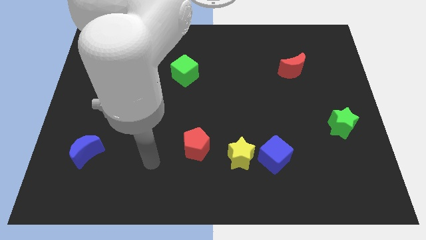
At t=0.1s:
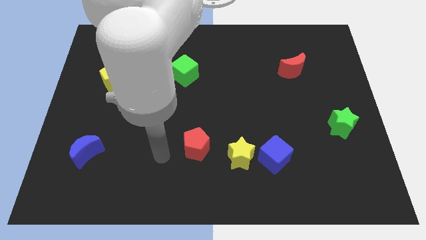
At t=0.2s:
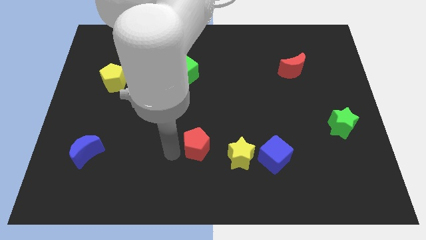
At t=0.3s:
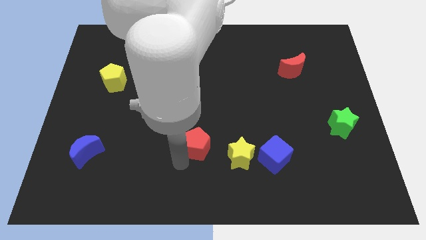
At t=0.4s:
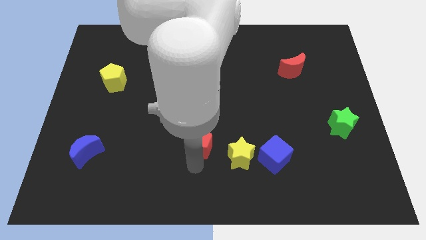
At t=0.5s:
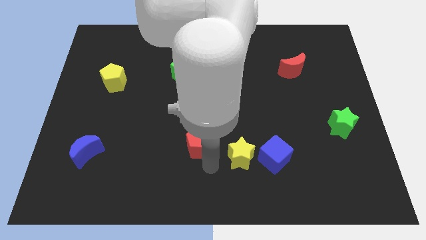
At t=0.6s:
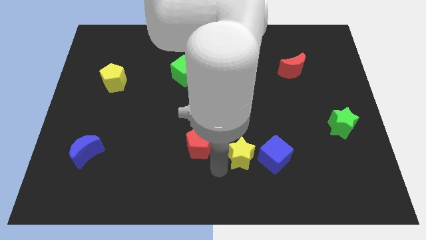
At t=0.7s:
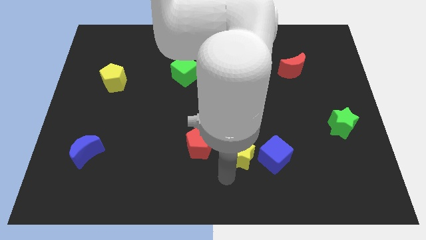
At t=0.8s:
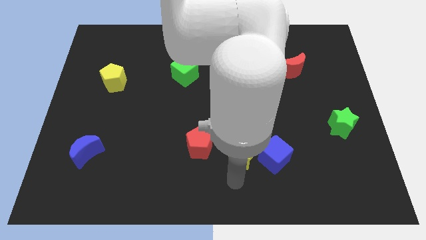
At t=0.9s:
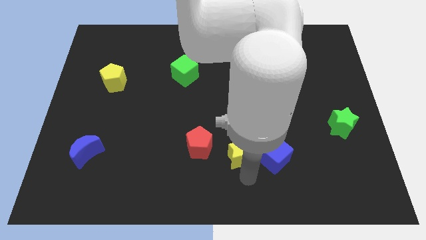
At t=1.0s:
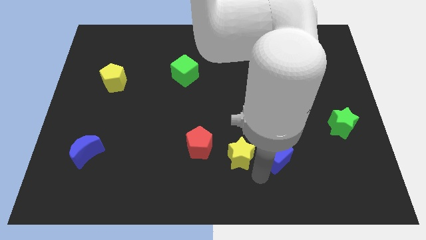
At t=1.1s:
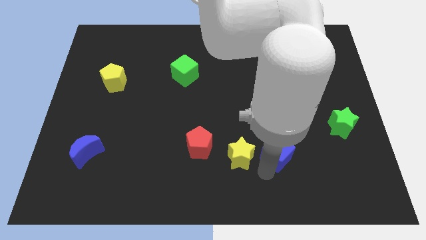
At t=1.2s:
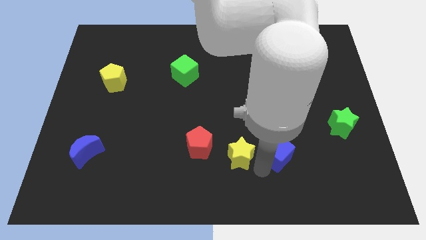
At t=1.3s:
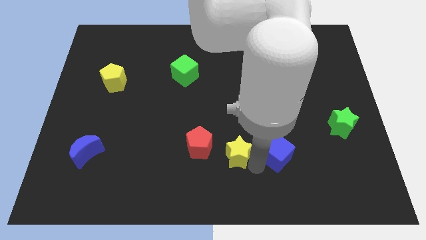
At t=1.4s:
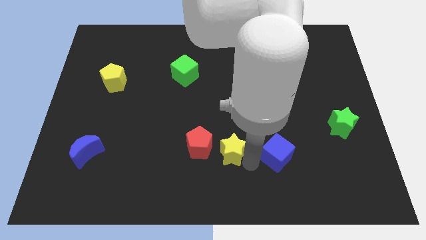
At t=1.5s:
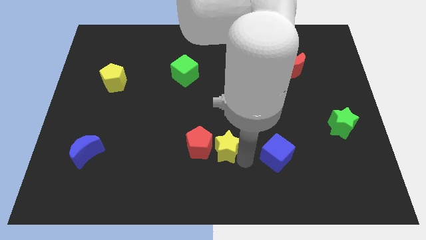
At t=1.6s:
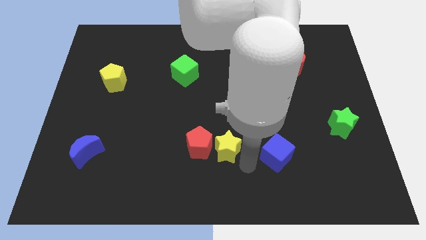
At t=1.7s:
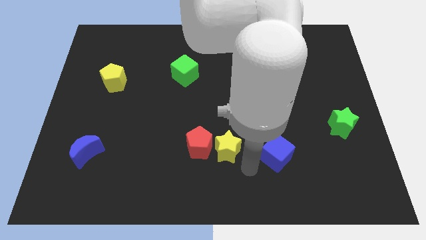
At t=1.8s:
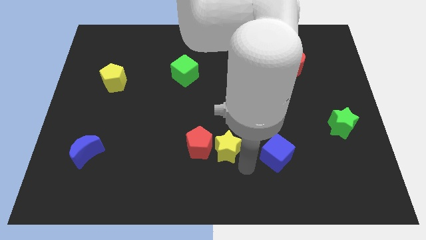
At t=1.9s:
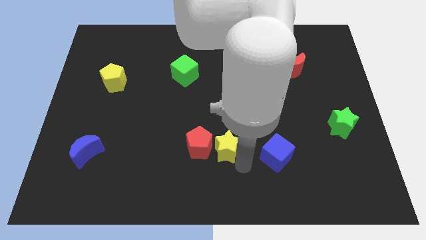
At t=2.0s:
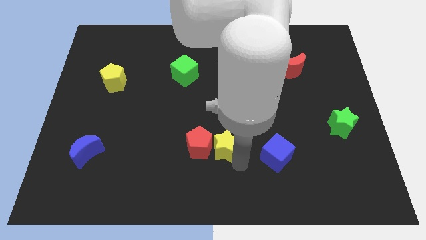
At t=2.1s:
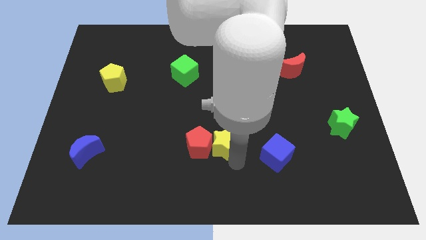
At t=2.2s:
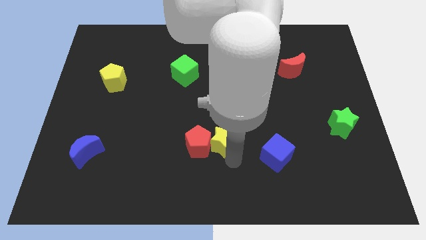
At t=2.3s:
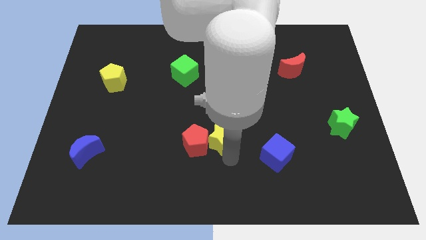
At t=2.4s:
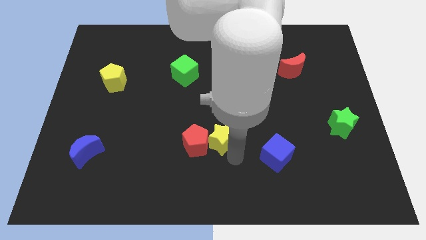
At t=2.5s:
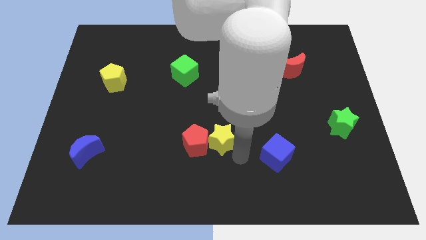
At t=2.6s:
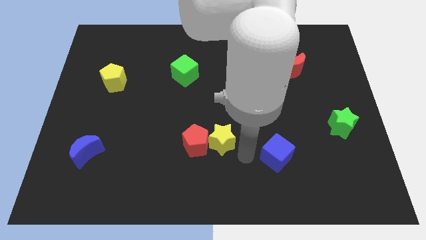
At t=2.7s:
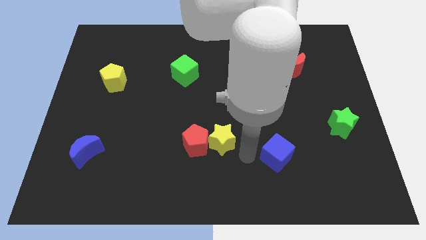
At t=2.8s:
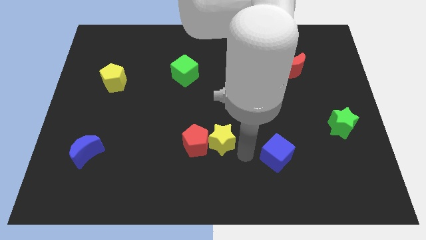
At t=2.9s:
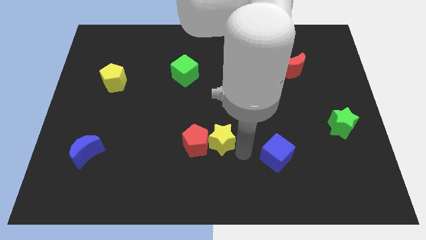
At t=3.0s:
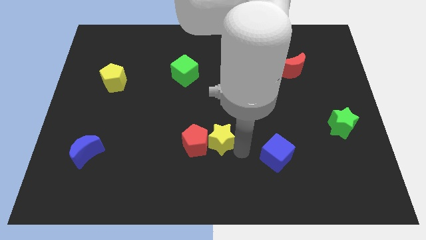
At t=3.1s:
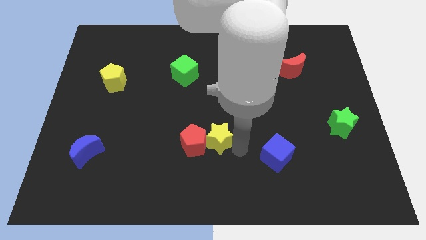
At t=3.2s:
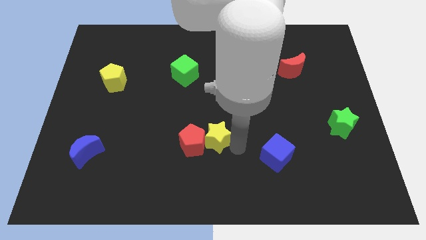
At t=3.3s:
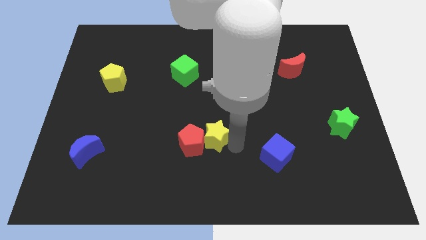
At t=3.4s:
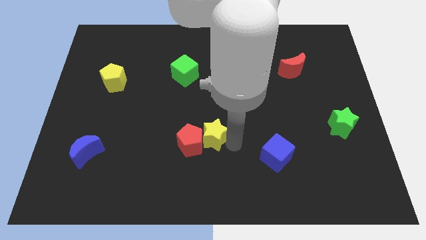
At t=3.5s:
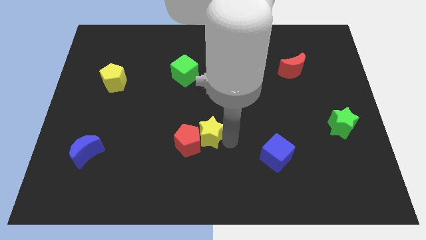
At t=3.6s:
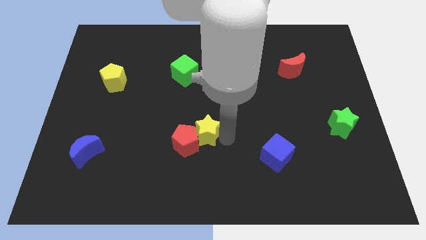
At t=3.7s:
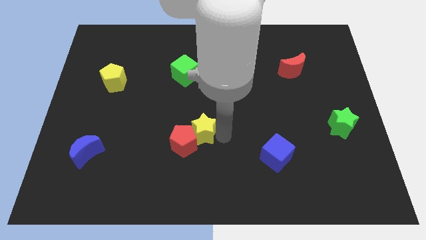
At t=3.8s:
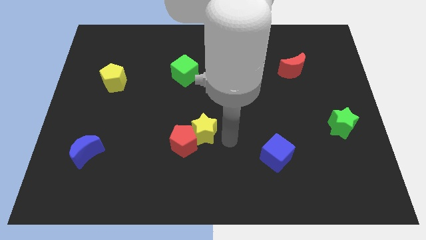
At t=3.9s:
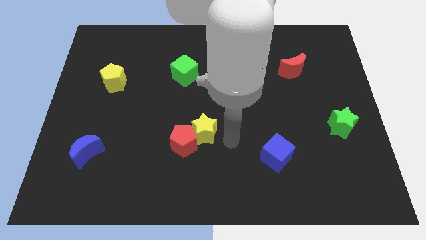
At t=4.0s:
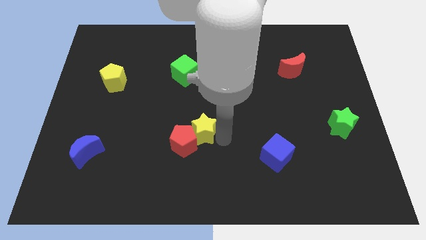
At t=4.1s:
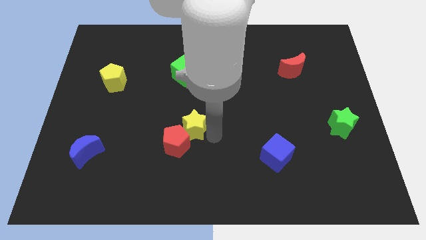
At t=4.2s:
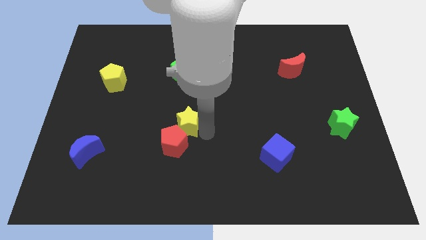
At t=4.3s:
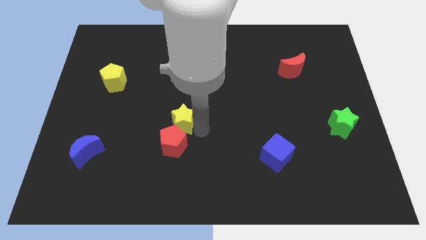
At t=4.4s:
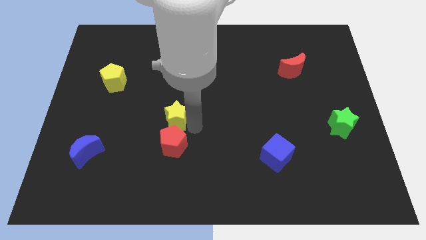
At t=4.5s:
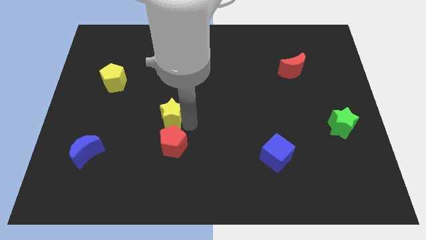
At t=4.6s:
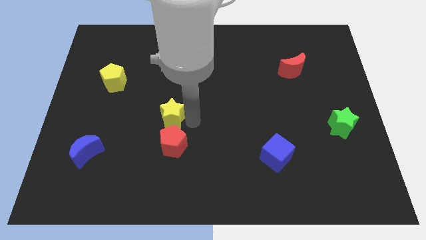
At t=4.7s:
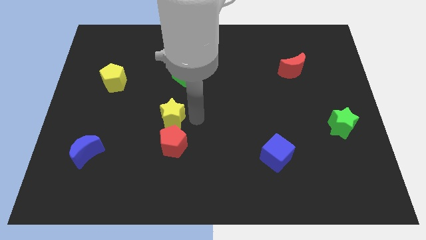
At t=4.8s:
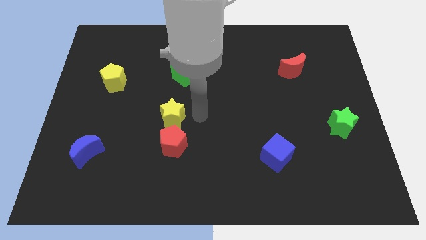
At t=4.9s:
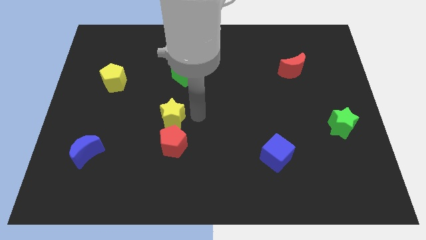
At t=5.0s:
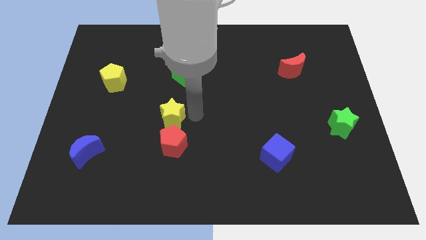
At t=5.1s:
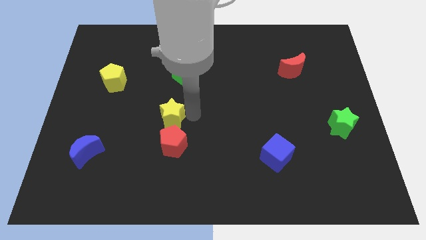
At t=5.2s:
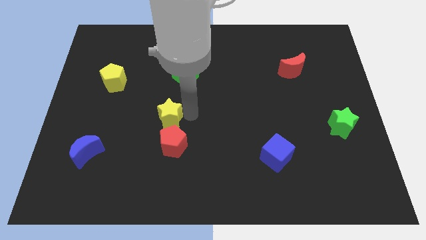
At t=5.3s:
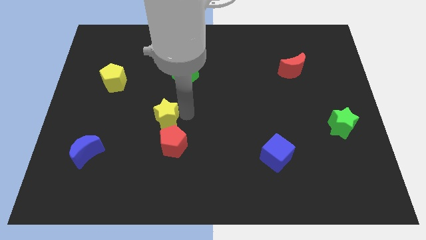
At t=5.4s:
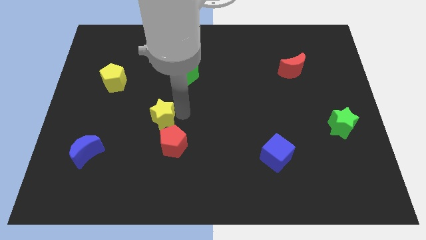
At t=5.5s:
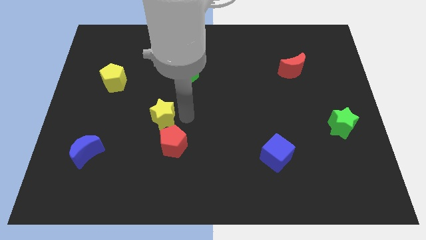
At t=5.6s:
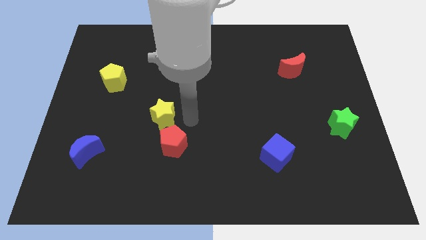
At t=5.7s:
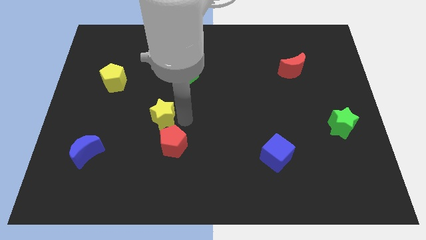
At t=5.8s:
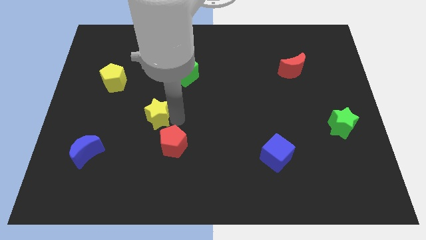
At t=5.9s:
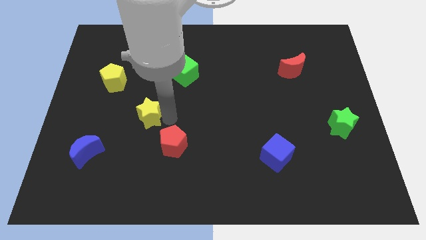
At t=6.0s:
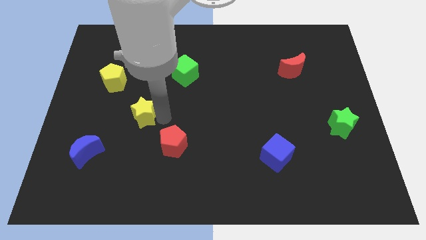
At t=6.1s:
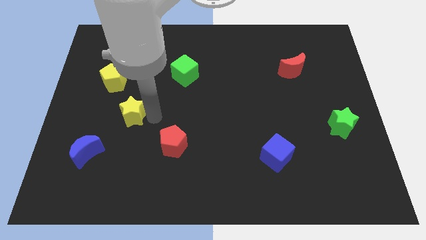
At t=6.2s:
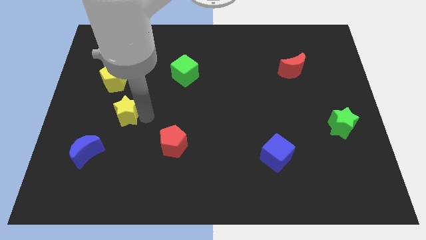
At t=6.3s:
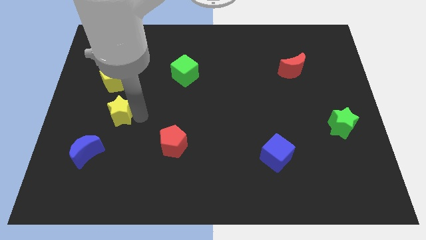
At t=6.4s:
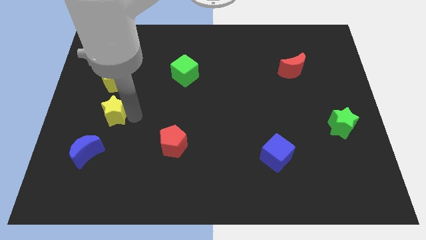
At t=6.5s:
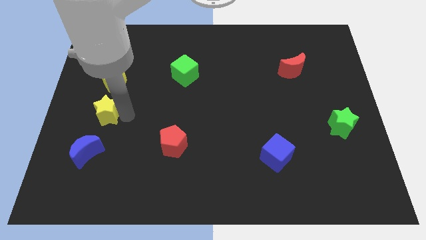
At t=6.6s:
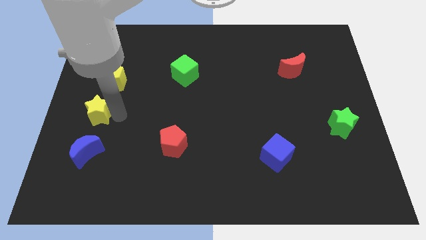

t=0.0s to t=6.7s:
put the yellow star to the left side of the board

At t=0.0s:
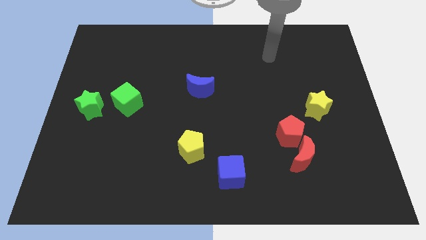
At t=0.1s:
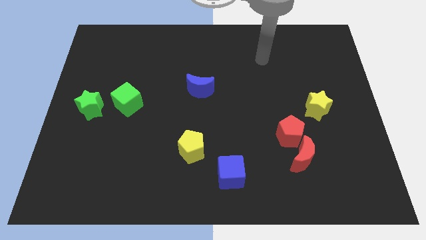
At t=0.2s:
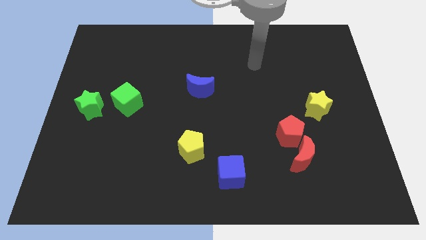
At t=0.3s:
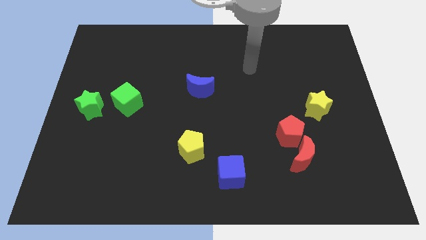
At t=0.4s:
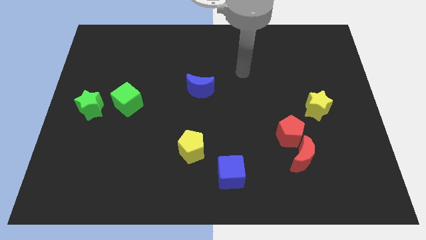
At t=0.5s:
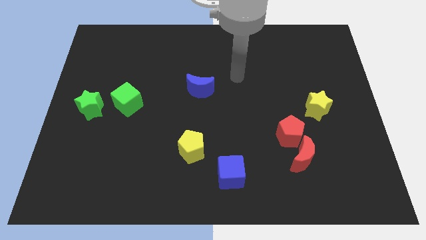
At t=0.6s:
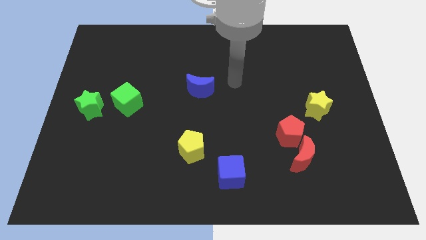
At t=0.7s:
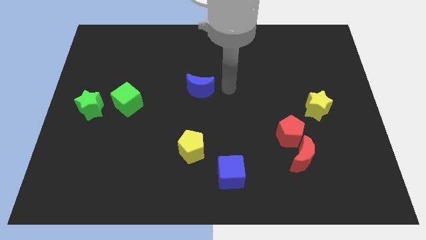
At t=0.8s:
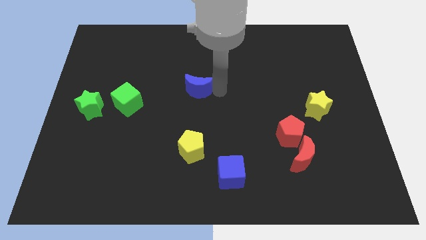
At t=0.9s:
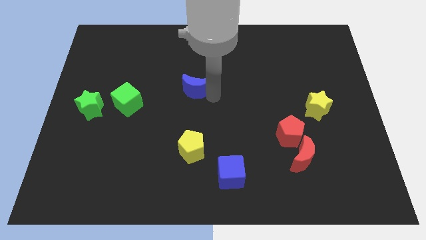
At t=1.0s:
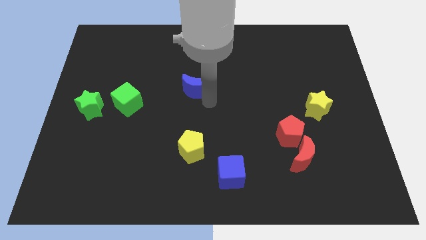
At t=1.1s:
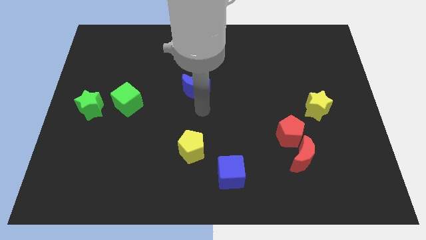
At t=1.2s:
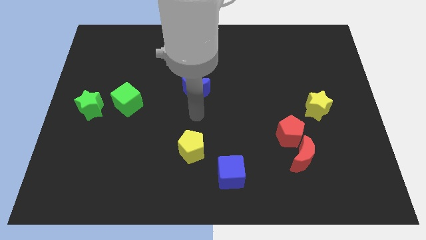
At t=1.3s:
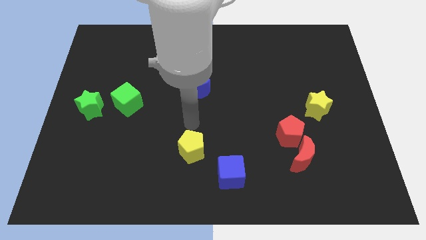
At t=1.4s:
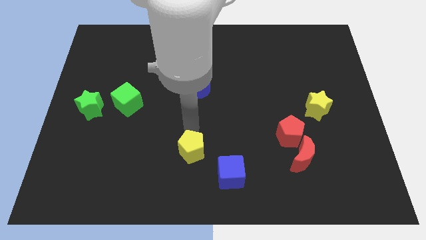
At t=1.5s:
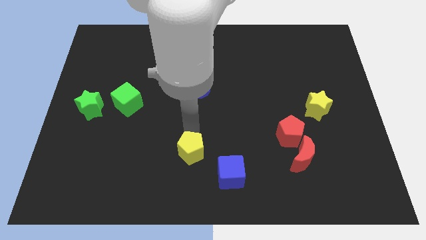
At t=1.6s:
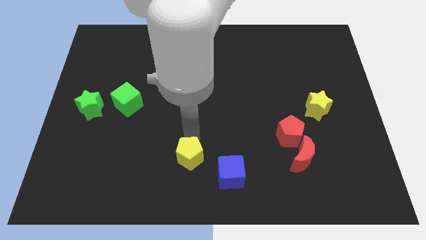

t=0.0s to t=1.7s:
push the yellow pentagon to the bottom
